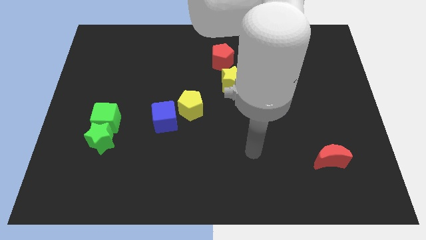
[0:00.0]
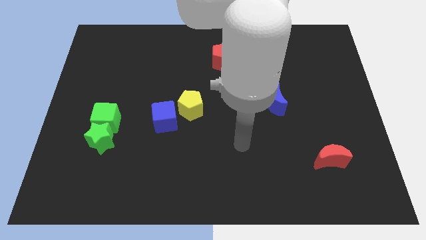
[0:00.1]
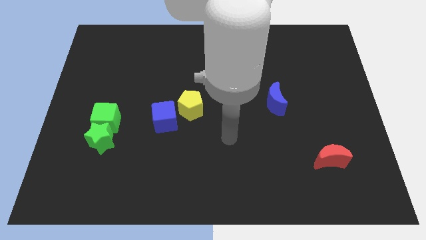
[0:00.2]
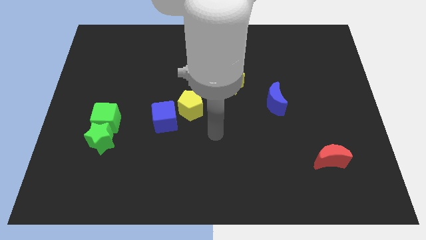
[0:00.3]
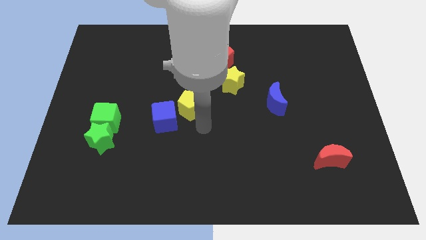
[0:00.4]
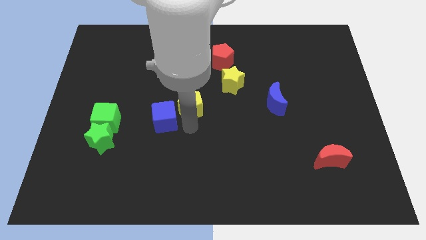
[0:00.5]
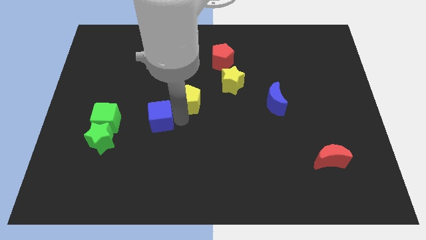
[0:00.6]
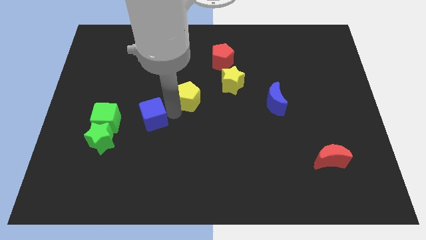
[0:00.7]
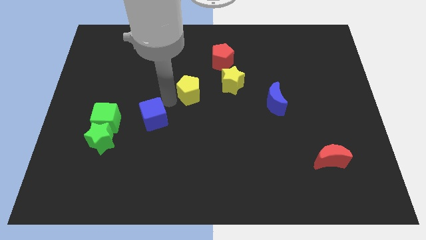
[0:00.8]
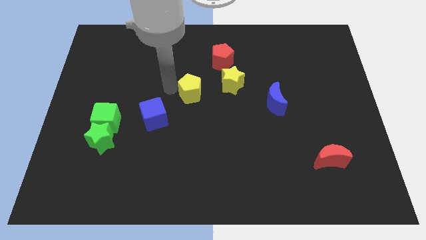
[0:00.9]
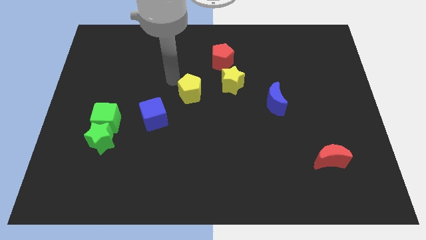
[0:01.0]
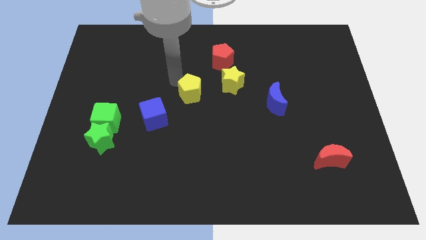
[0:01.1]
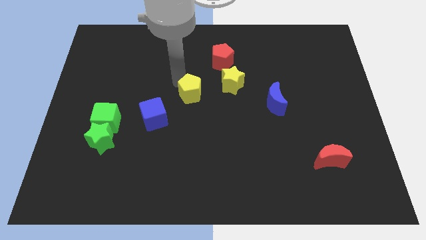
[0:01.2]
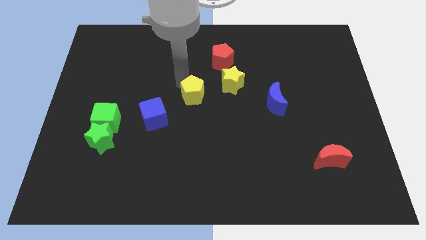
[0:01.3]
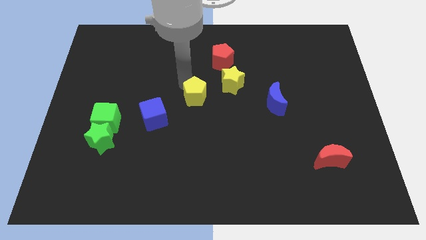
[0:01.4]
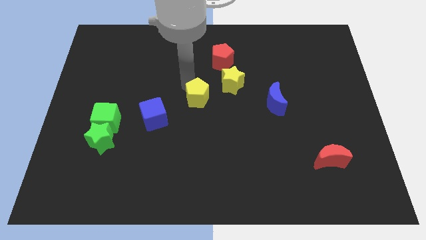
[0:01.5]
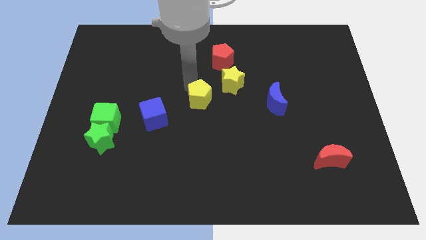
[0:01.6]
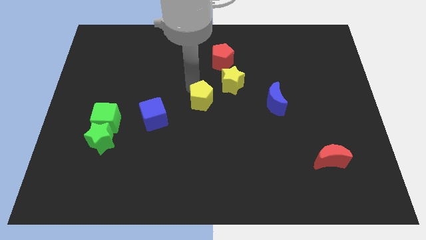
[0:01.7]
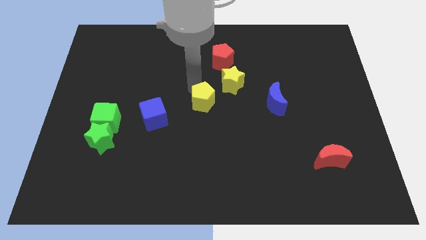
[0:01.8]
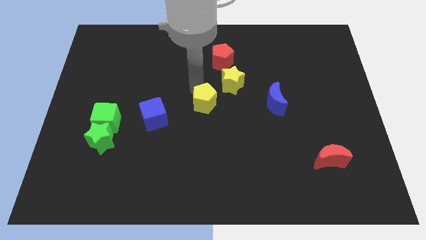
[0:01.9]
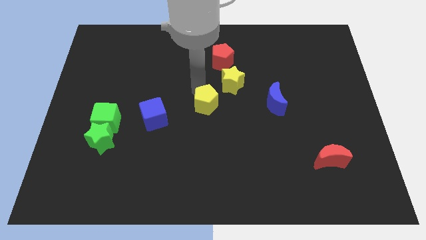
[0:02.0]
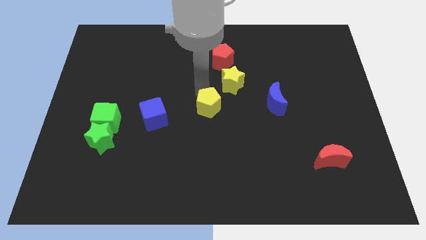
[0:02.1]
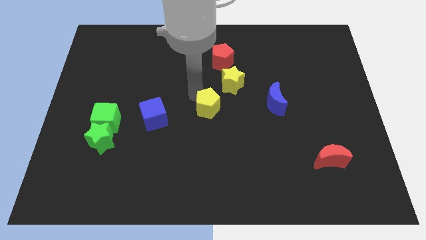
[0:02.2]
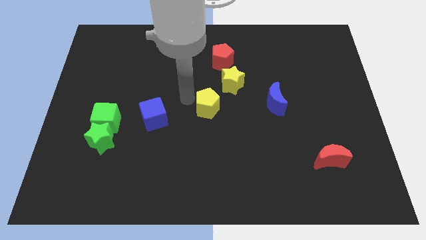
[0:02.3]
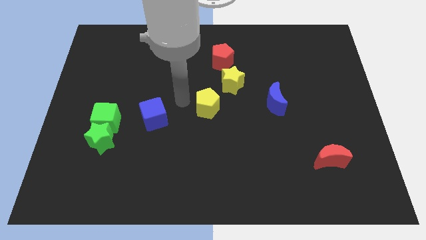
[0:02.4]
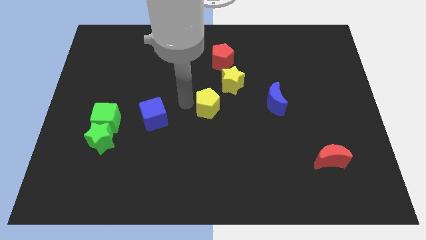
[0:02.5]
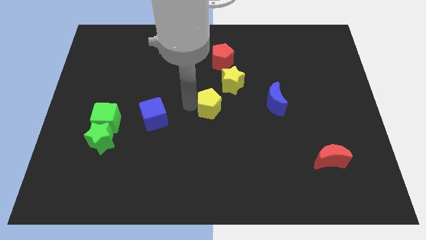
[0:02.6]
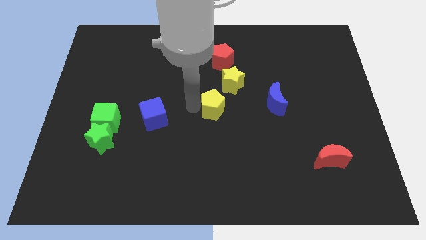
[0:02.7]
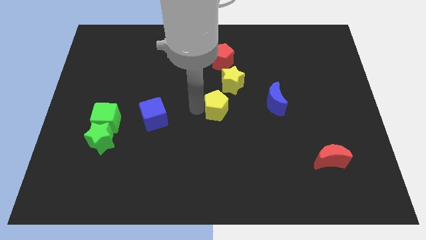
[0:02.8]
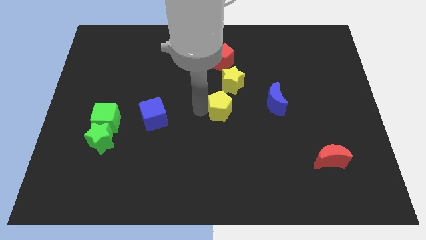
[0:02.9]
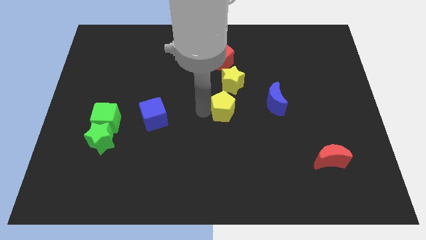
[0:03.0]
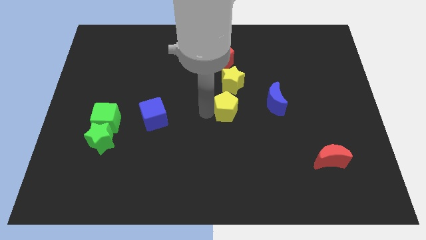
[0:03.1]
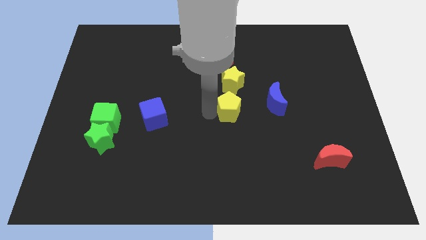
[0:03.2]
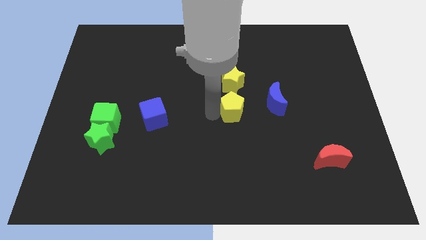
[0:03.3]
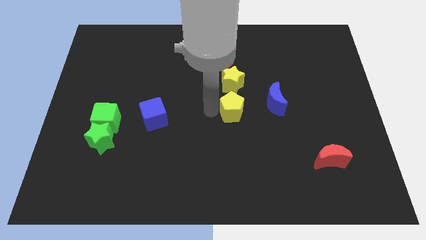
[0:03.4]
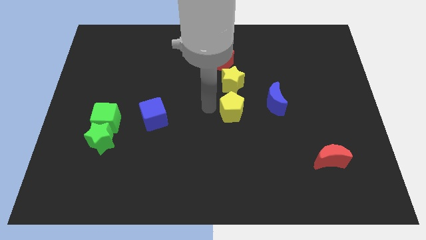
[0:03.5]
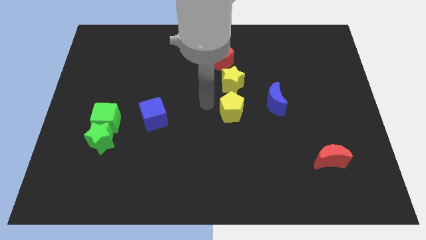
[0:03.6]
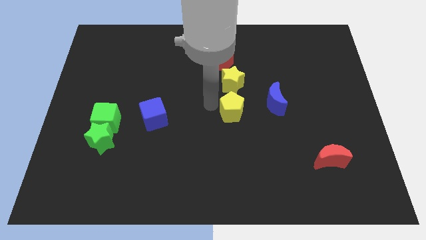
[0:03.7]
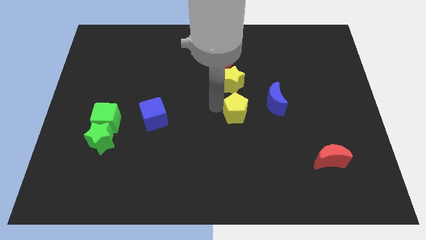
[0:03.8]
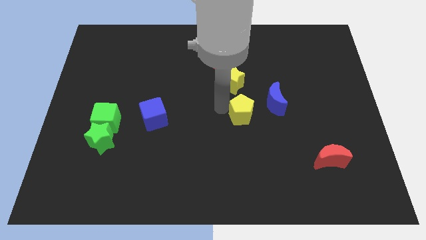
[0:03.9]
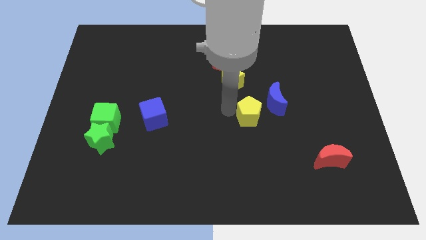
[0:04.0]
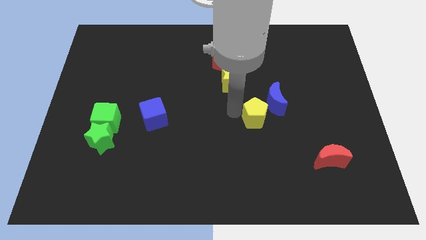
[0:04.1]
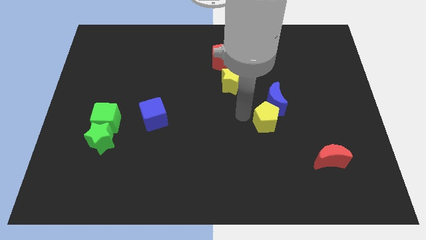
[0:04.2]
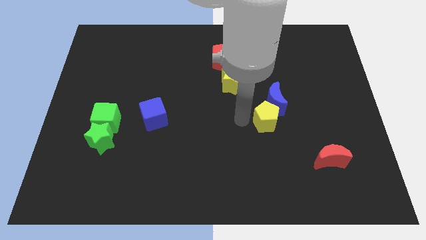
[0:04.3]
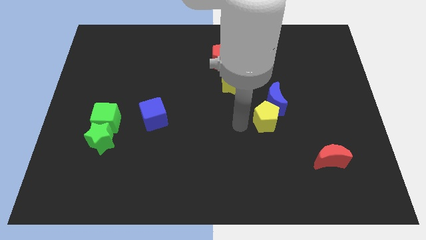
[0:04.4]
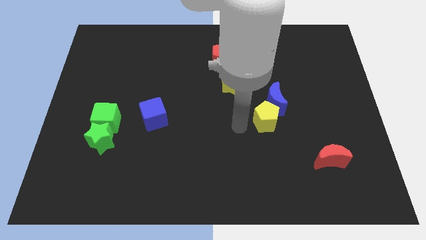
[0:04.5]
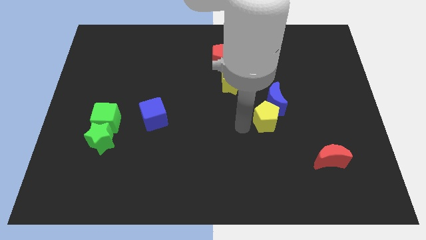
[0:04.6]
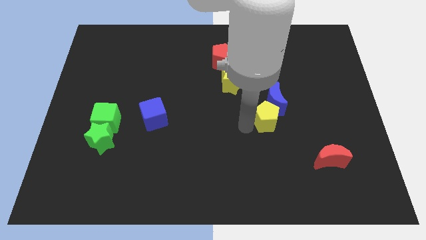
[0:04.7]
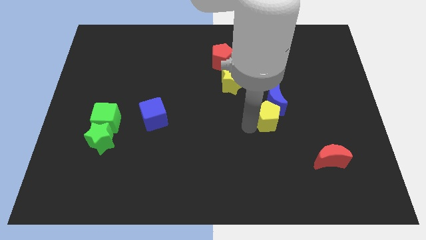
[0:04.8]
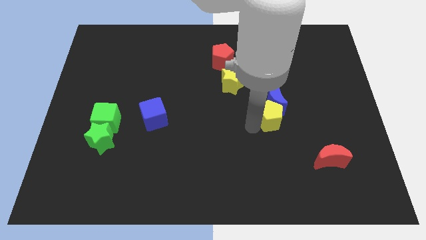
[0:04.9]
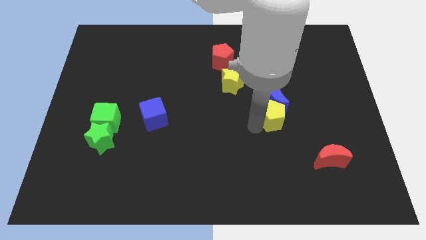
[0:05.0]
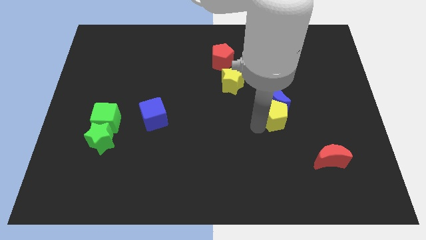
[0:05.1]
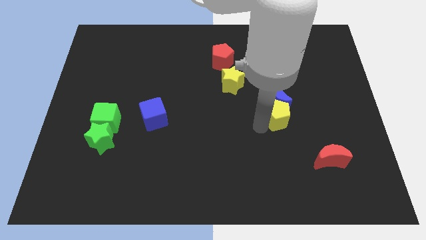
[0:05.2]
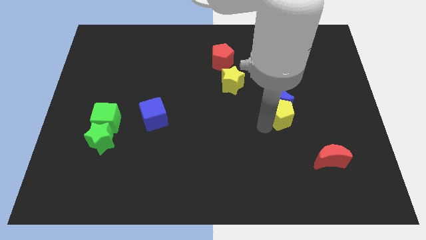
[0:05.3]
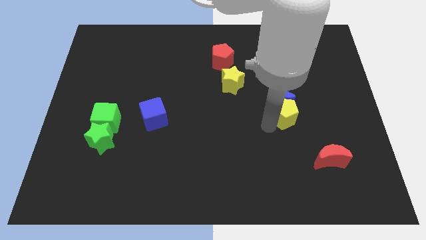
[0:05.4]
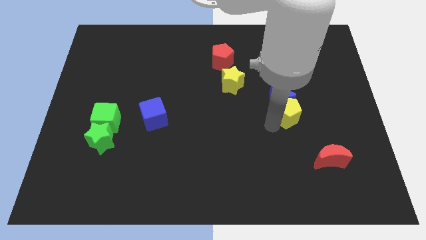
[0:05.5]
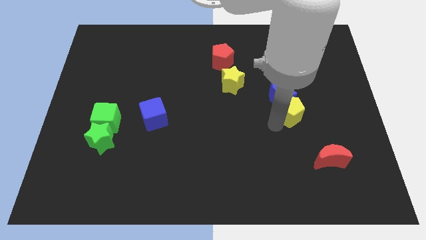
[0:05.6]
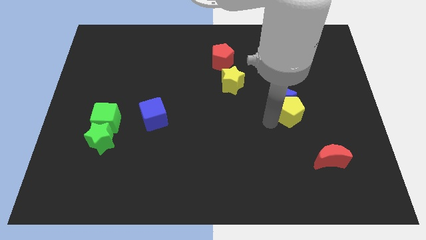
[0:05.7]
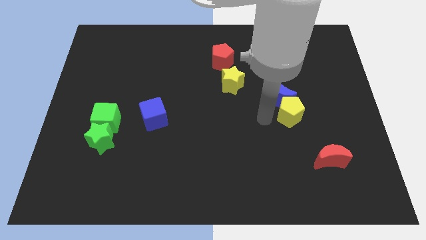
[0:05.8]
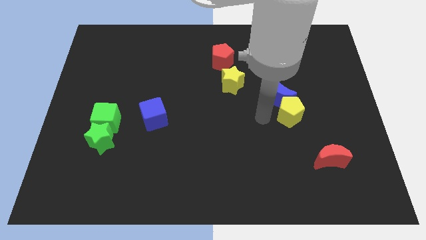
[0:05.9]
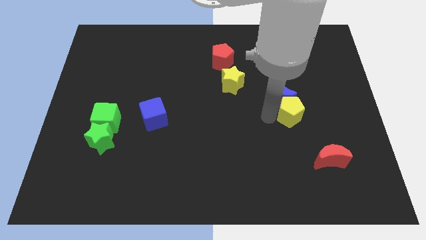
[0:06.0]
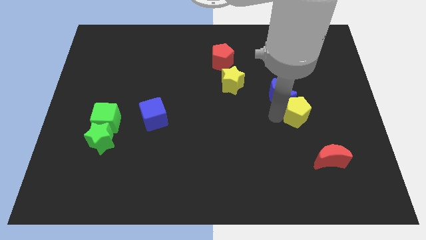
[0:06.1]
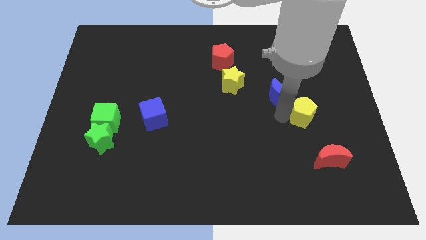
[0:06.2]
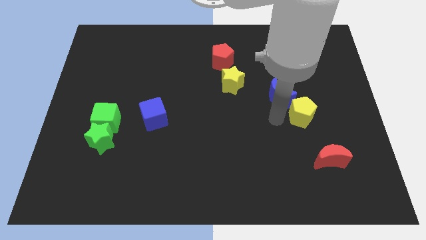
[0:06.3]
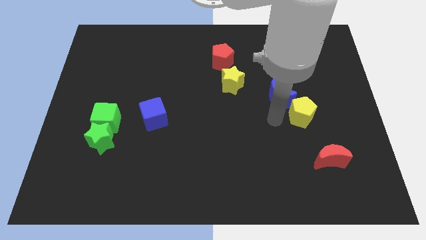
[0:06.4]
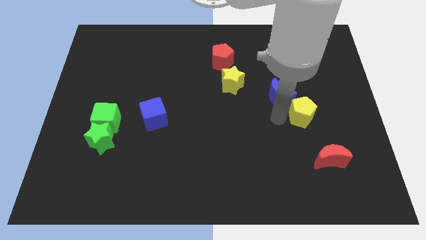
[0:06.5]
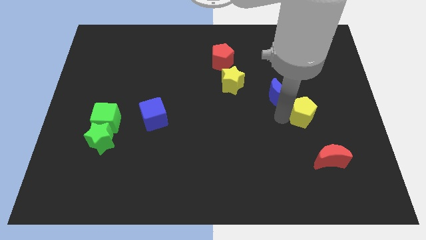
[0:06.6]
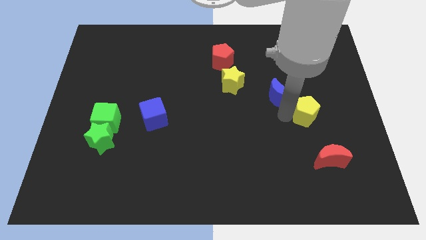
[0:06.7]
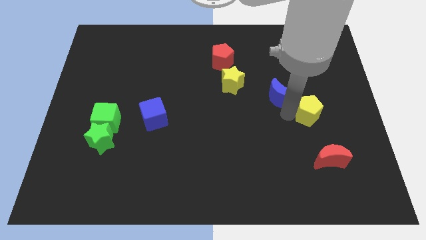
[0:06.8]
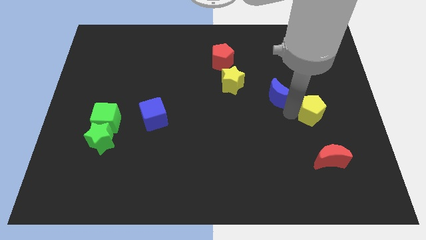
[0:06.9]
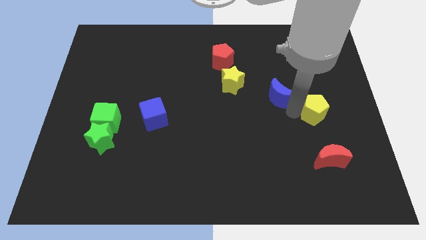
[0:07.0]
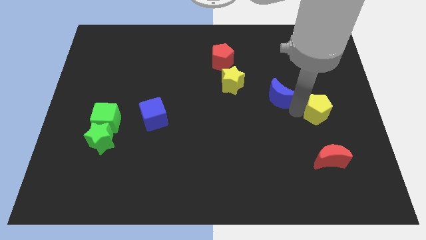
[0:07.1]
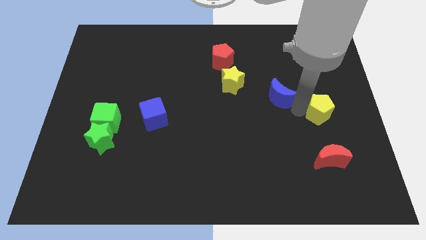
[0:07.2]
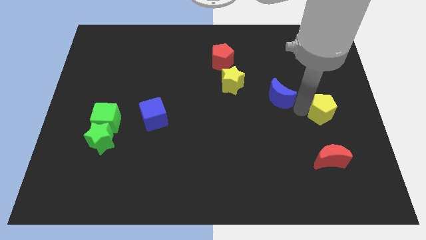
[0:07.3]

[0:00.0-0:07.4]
move the yellow pentagon to the center right
